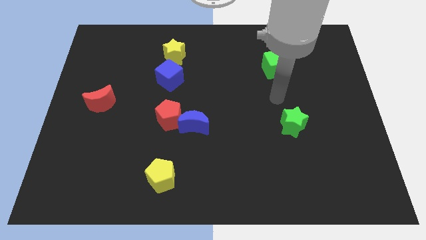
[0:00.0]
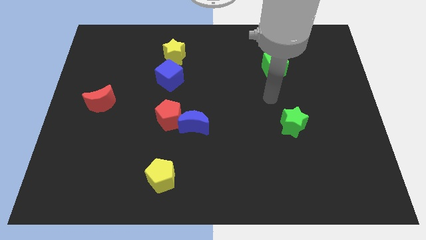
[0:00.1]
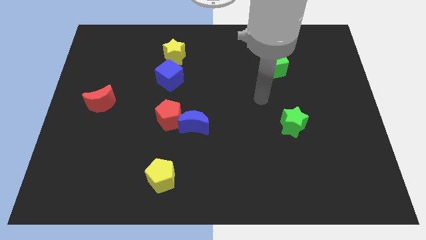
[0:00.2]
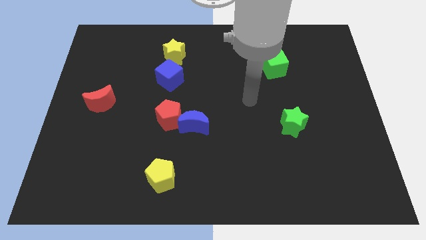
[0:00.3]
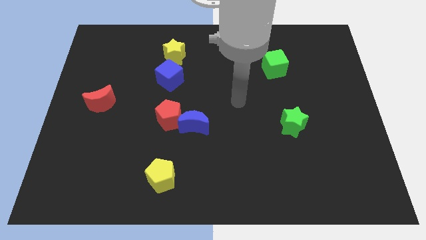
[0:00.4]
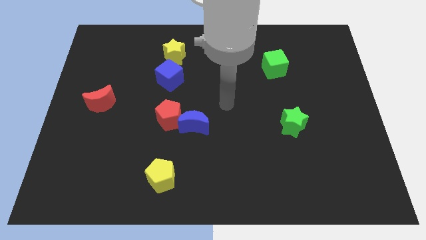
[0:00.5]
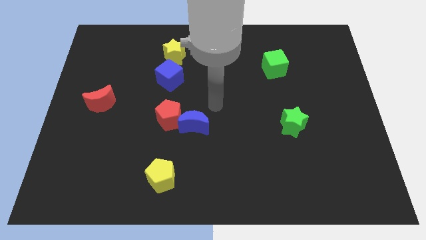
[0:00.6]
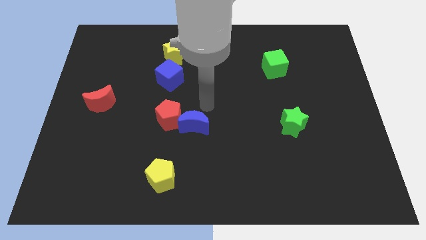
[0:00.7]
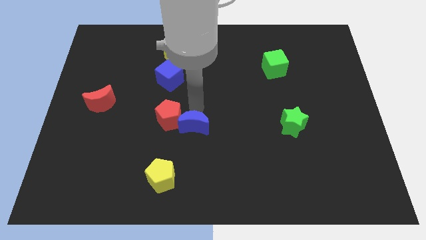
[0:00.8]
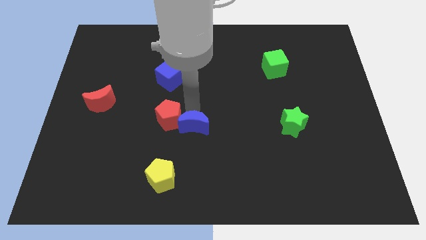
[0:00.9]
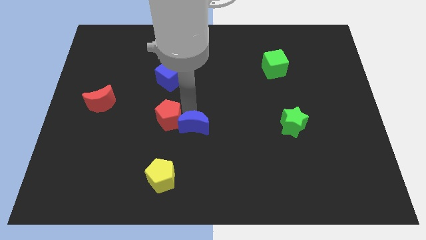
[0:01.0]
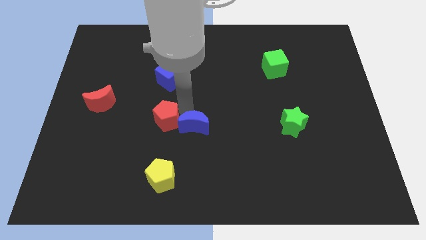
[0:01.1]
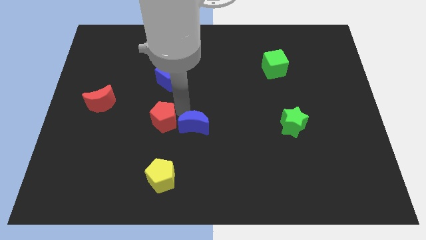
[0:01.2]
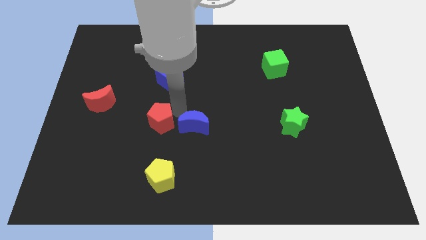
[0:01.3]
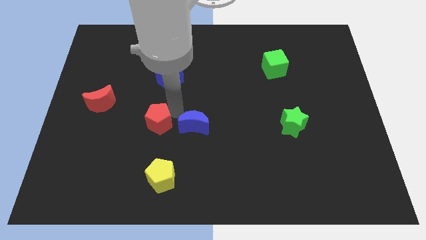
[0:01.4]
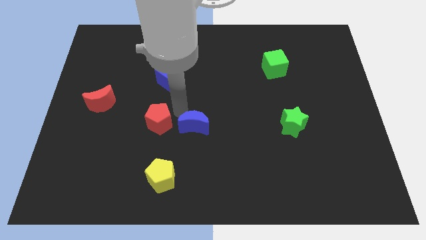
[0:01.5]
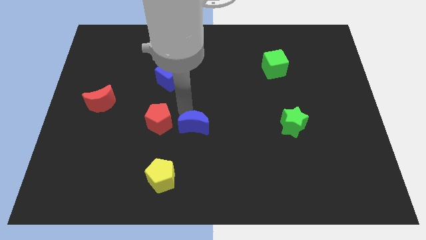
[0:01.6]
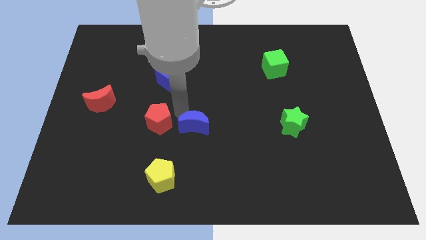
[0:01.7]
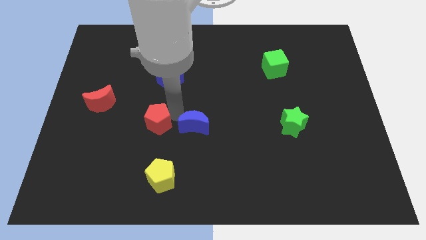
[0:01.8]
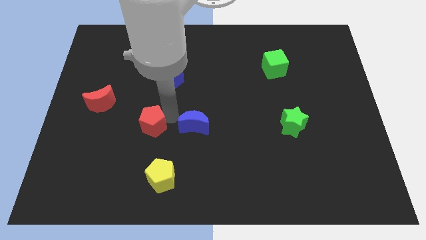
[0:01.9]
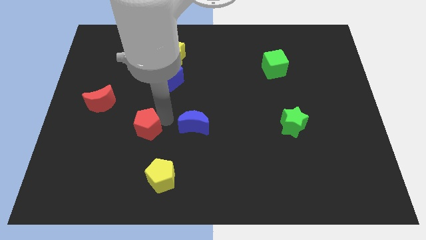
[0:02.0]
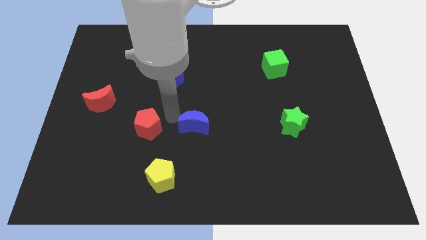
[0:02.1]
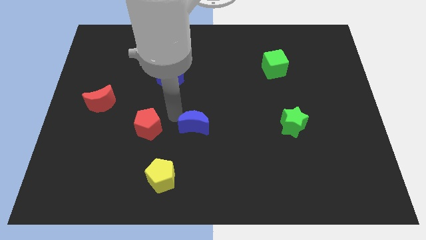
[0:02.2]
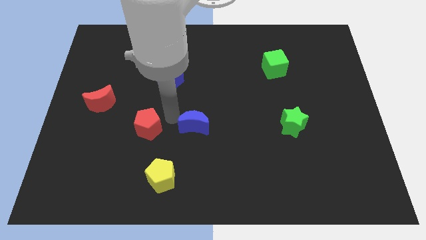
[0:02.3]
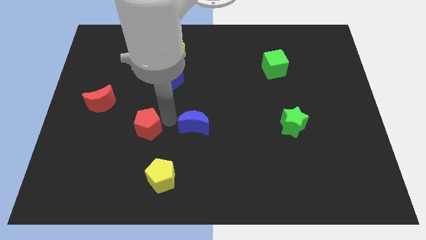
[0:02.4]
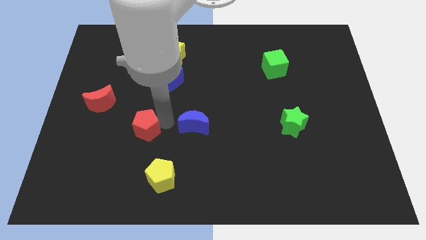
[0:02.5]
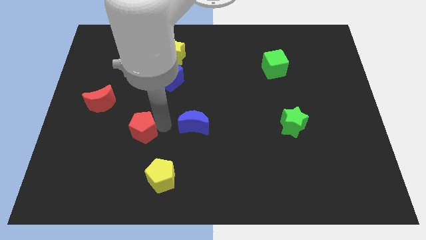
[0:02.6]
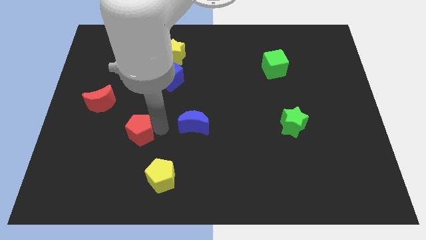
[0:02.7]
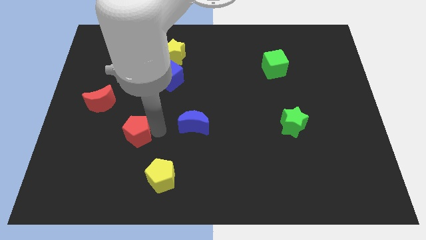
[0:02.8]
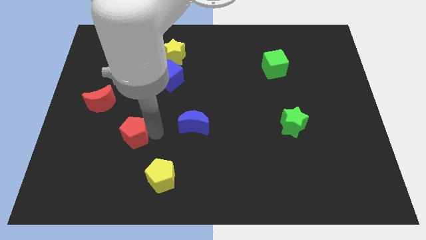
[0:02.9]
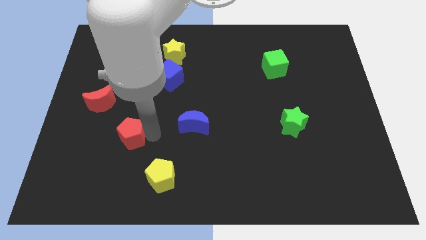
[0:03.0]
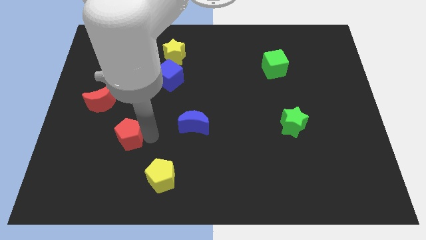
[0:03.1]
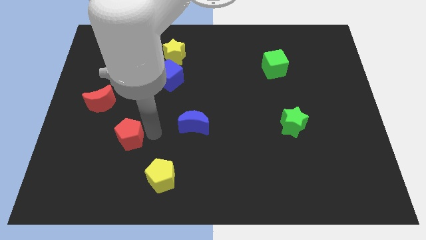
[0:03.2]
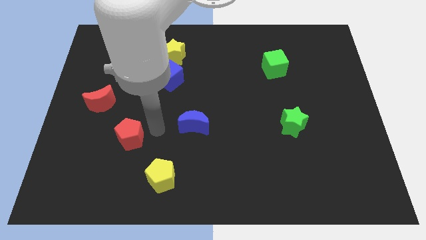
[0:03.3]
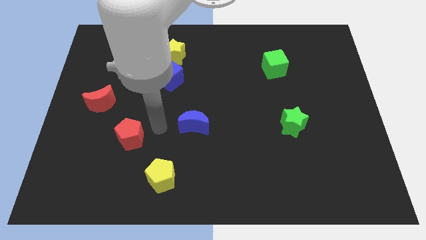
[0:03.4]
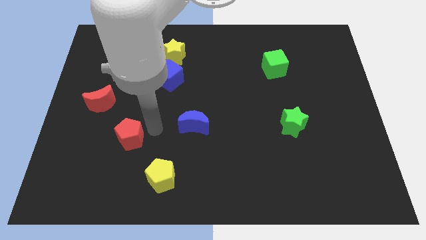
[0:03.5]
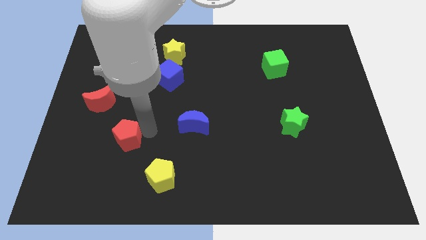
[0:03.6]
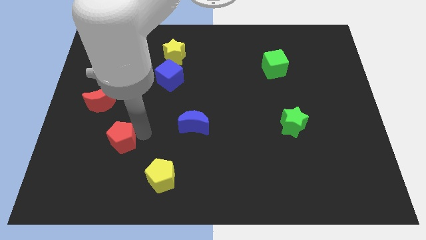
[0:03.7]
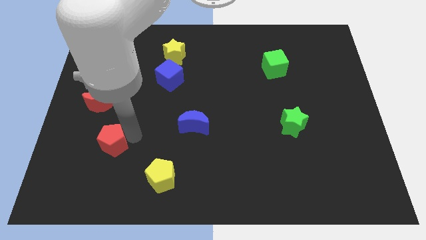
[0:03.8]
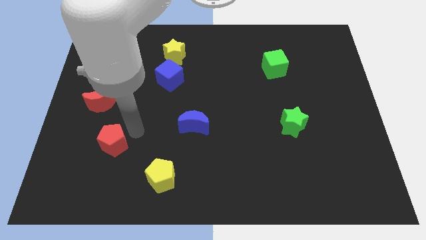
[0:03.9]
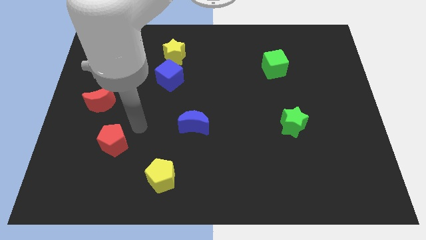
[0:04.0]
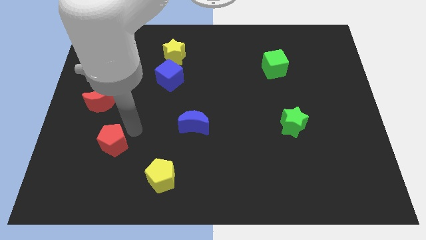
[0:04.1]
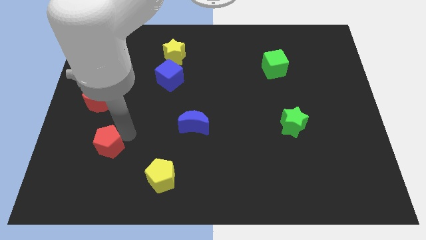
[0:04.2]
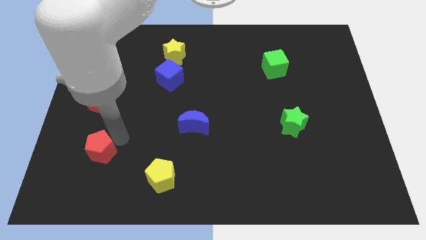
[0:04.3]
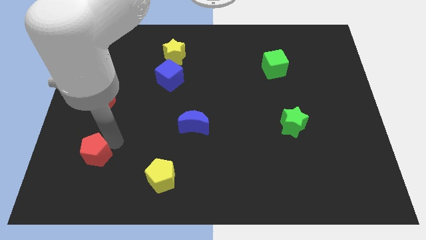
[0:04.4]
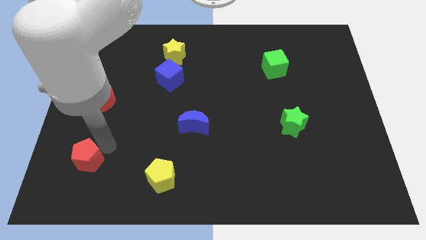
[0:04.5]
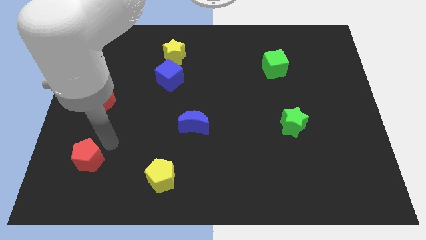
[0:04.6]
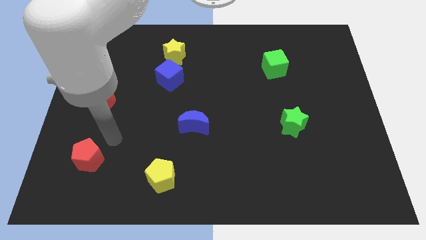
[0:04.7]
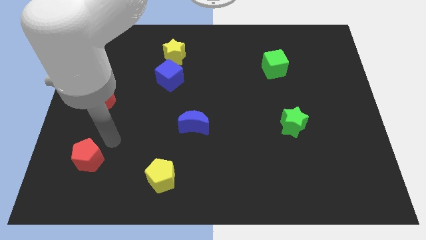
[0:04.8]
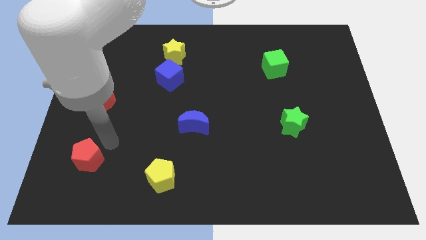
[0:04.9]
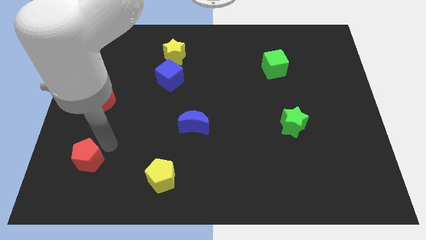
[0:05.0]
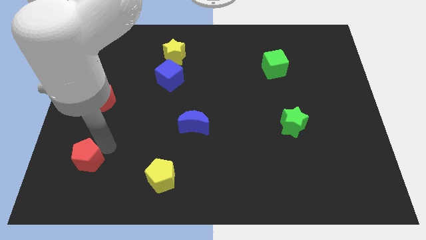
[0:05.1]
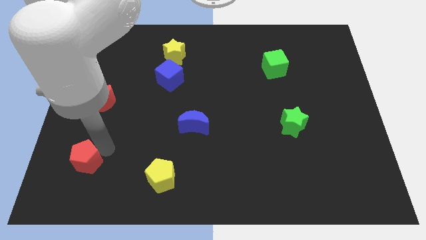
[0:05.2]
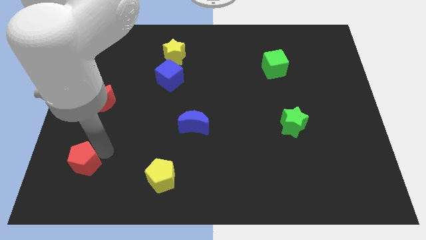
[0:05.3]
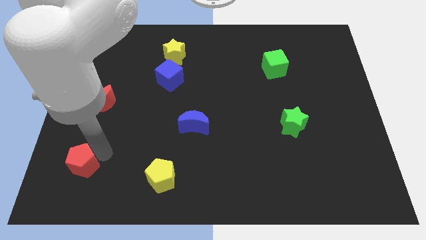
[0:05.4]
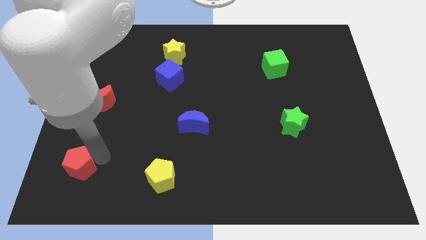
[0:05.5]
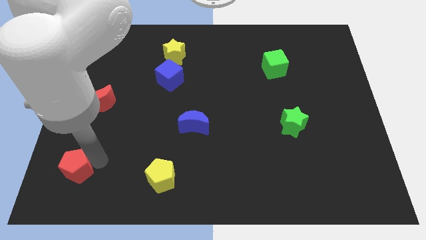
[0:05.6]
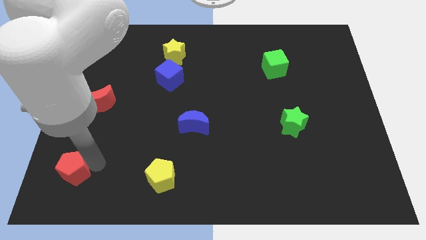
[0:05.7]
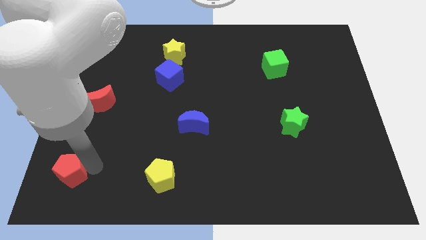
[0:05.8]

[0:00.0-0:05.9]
push the red pentagon to the bottom left

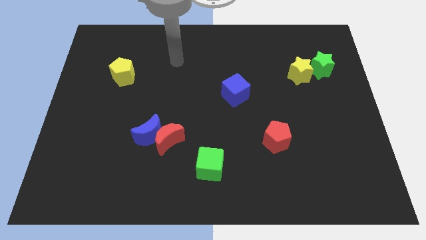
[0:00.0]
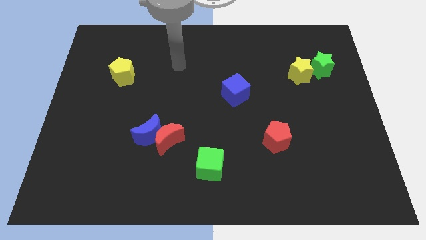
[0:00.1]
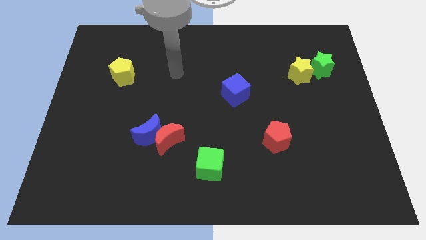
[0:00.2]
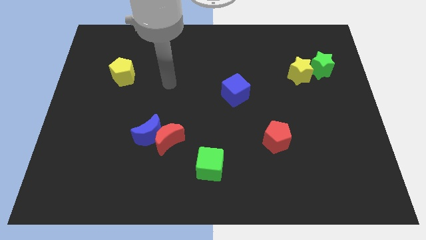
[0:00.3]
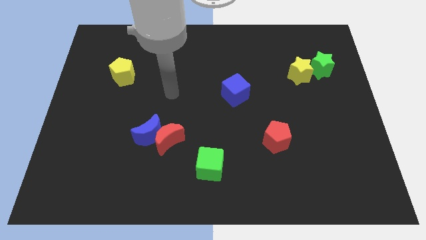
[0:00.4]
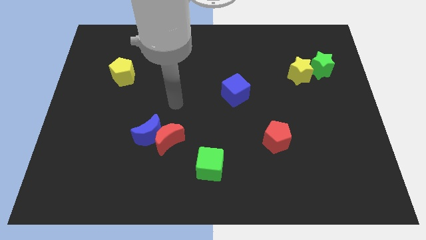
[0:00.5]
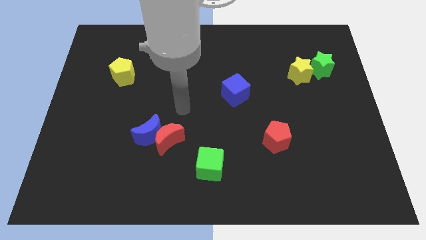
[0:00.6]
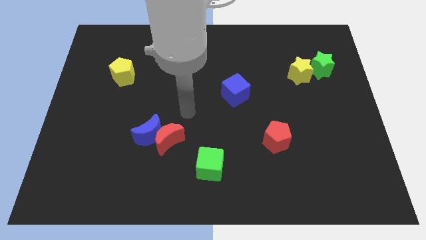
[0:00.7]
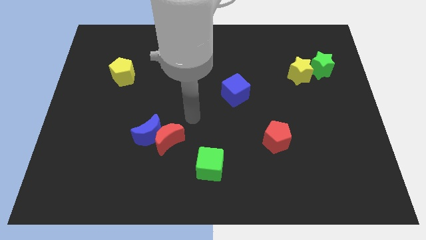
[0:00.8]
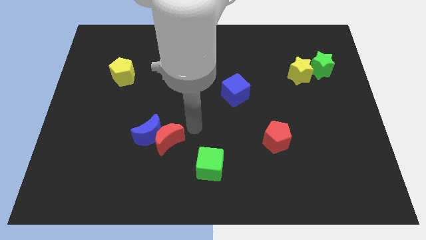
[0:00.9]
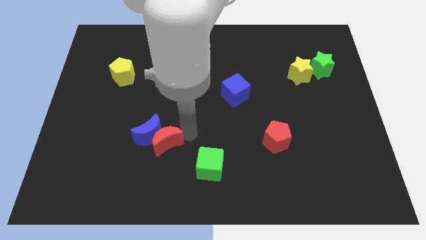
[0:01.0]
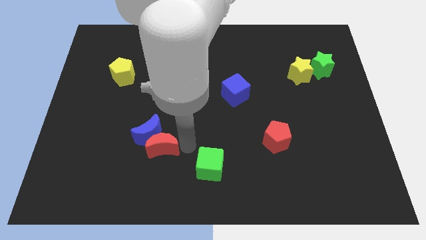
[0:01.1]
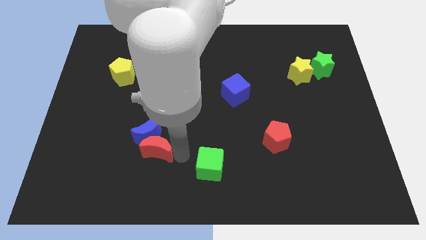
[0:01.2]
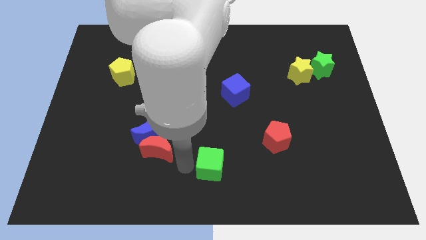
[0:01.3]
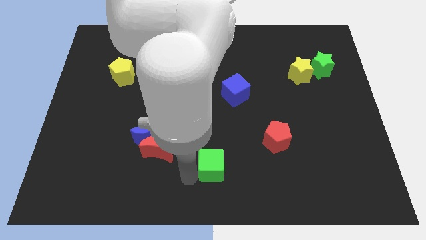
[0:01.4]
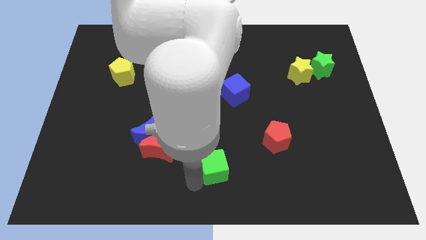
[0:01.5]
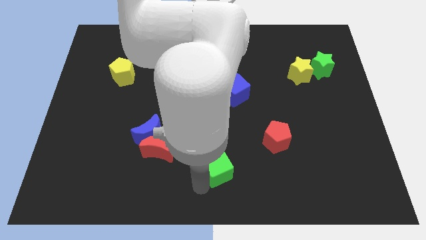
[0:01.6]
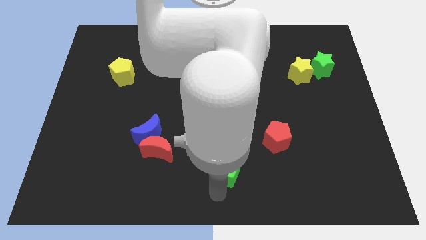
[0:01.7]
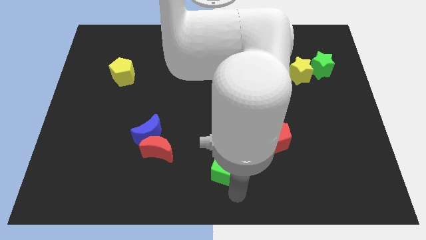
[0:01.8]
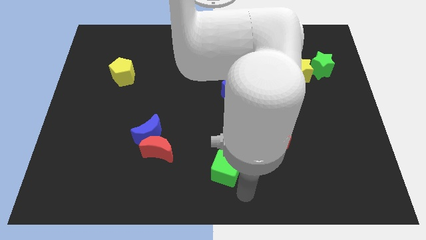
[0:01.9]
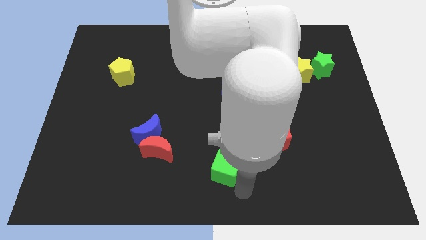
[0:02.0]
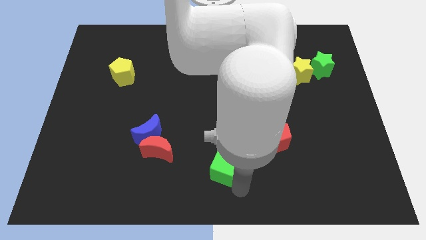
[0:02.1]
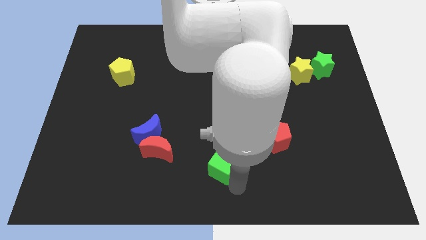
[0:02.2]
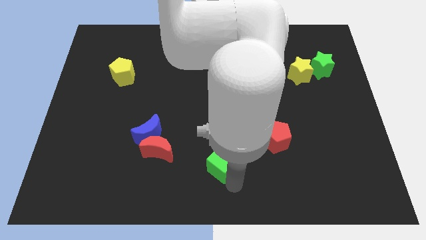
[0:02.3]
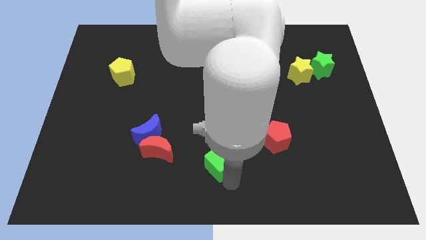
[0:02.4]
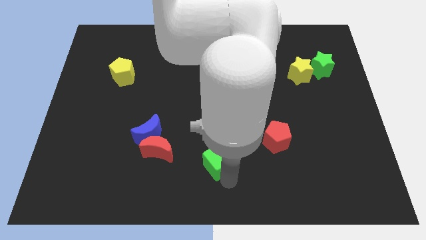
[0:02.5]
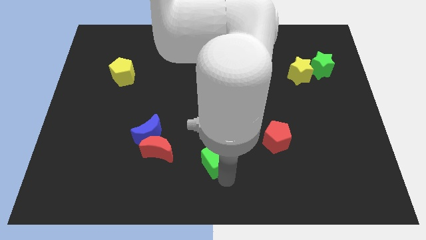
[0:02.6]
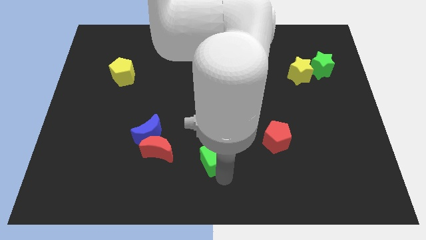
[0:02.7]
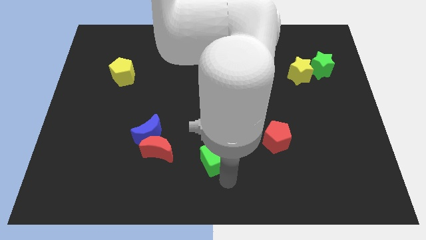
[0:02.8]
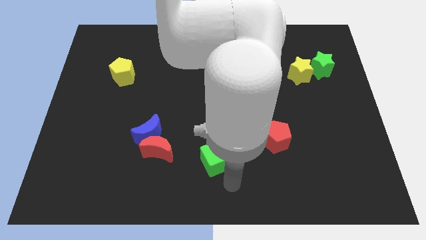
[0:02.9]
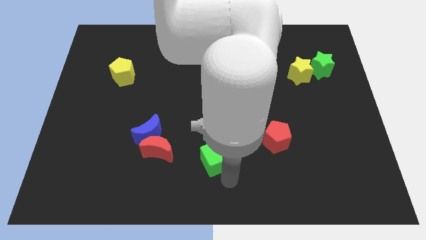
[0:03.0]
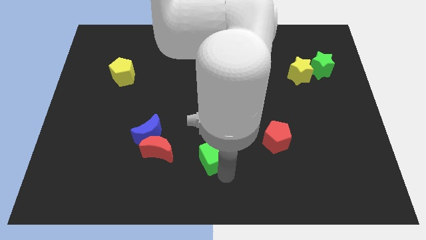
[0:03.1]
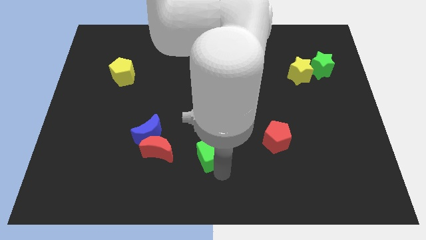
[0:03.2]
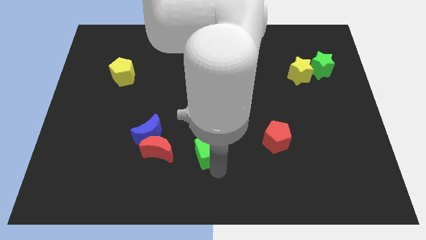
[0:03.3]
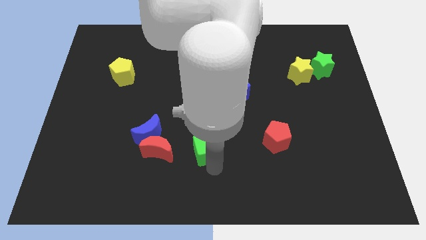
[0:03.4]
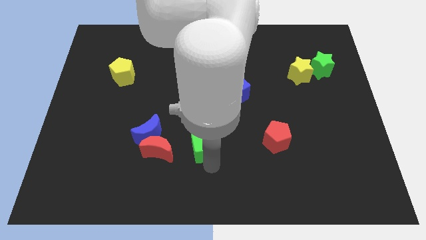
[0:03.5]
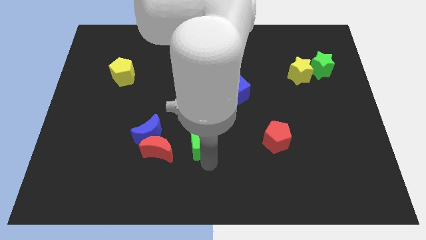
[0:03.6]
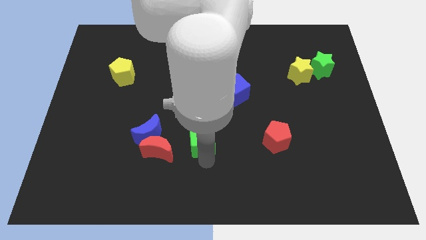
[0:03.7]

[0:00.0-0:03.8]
slide the green cube to the middle of the board
